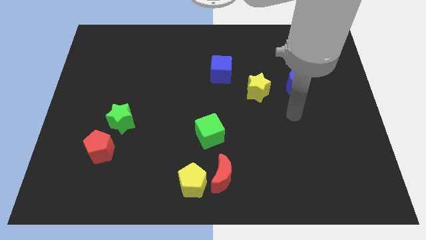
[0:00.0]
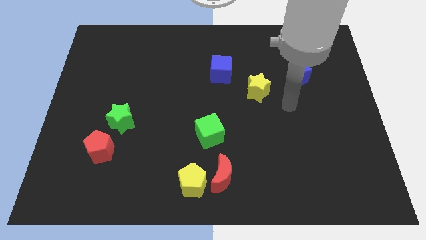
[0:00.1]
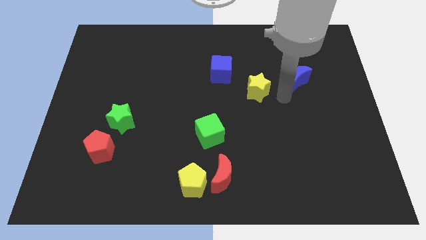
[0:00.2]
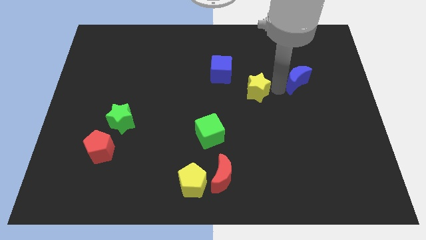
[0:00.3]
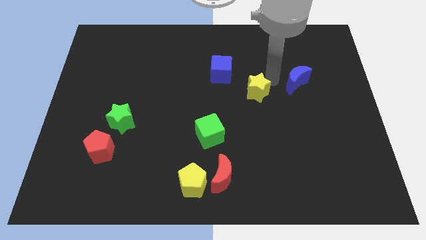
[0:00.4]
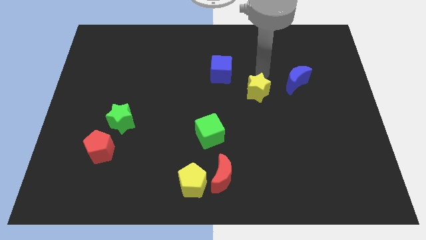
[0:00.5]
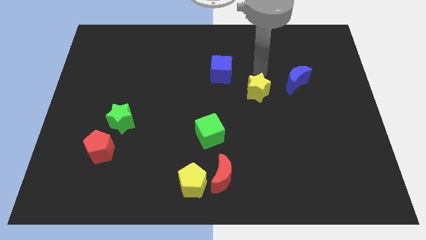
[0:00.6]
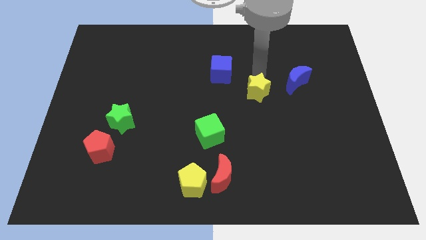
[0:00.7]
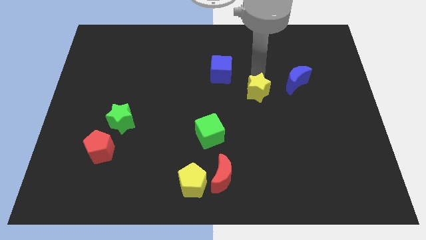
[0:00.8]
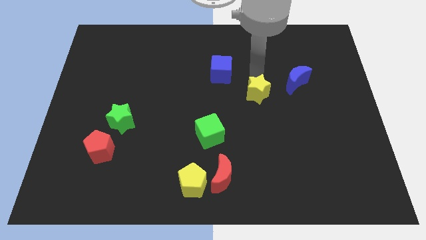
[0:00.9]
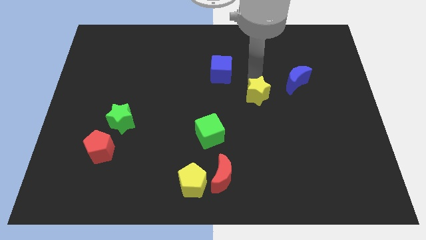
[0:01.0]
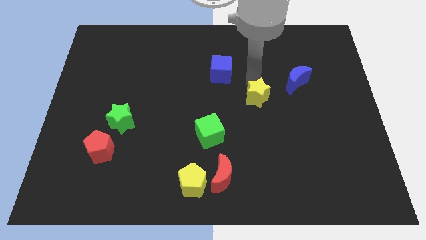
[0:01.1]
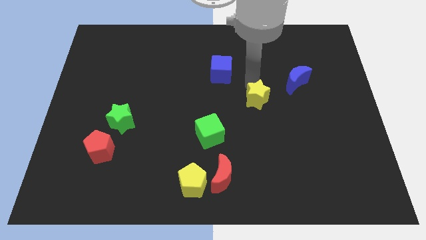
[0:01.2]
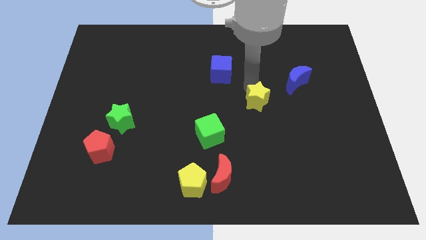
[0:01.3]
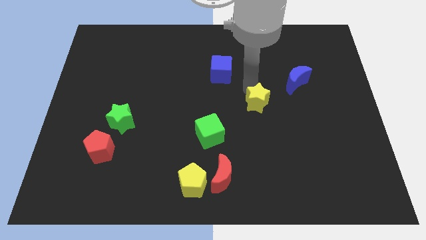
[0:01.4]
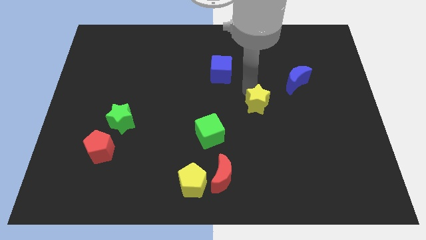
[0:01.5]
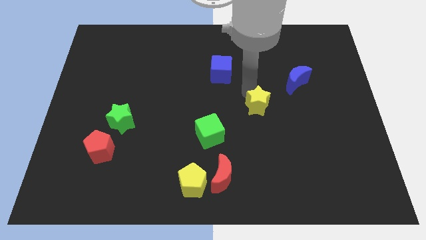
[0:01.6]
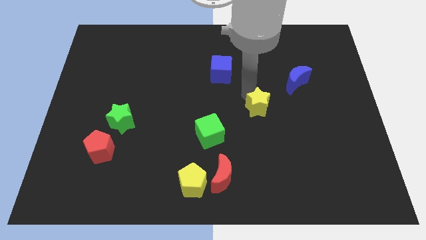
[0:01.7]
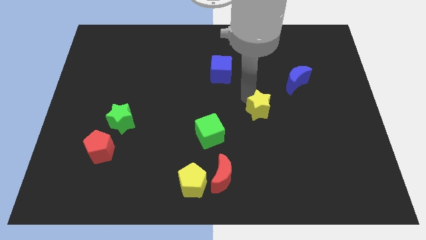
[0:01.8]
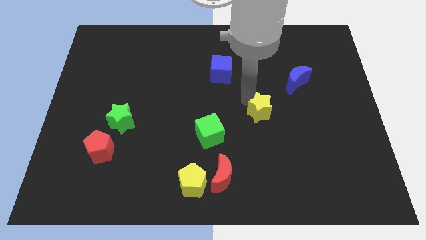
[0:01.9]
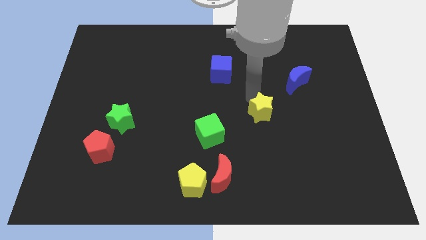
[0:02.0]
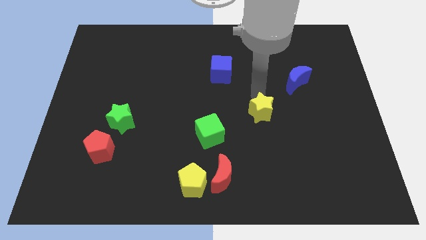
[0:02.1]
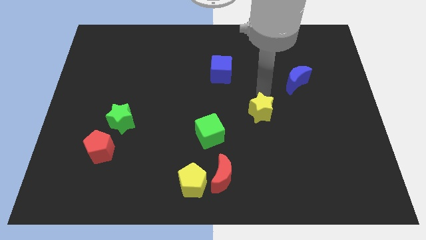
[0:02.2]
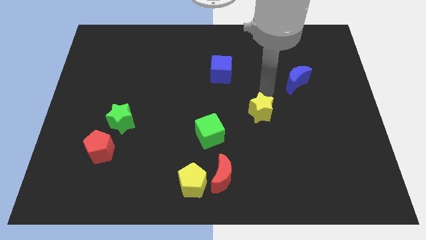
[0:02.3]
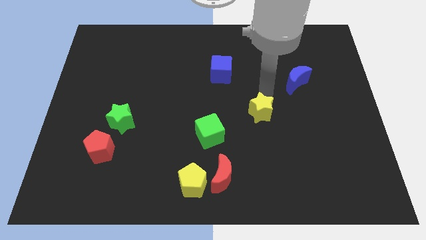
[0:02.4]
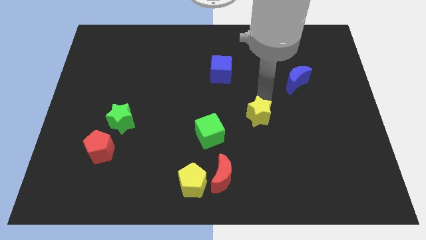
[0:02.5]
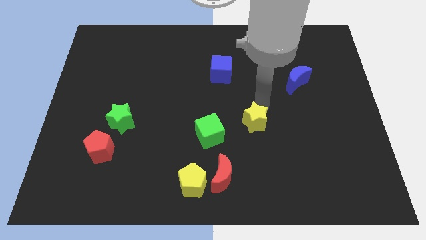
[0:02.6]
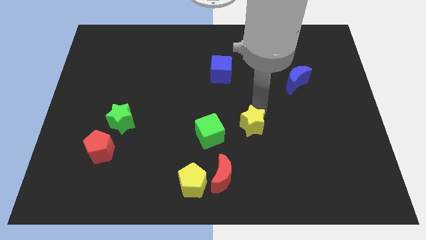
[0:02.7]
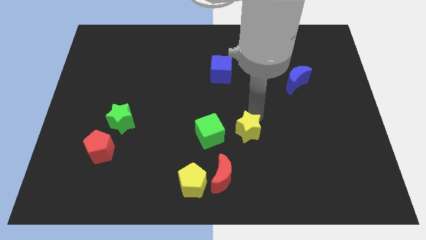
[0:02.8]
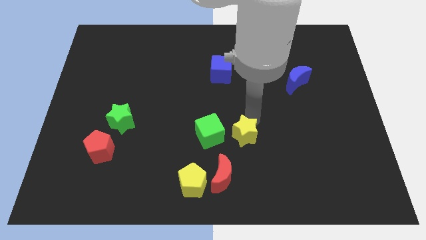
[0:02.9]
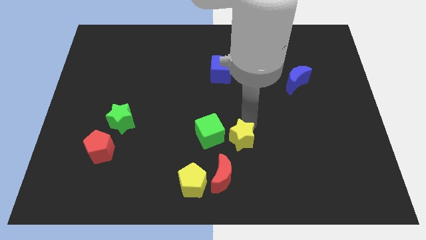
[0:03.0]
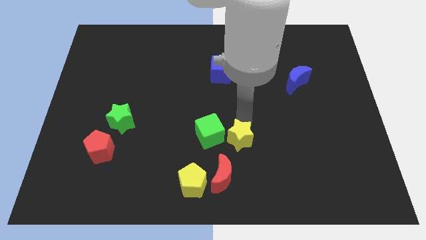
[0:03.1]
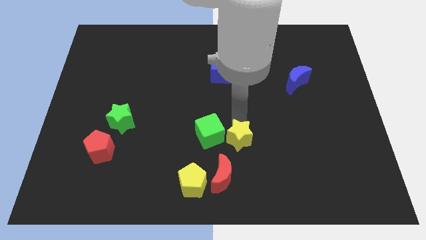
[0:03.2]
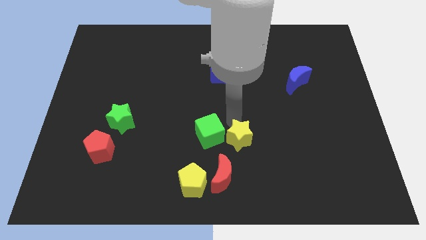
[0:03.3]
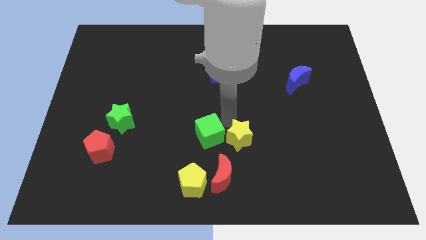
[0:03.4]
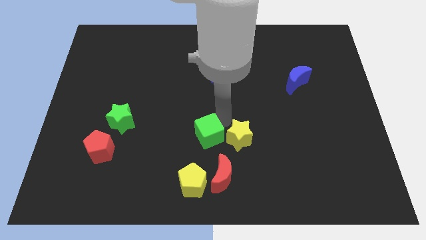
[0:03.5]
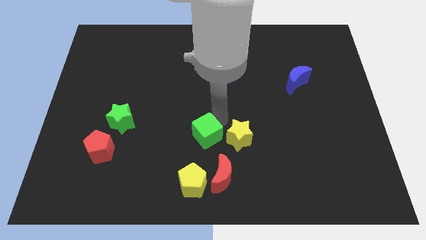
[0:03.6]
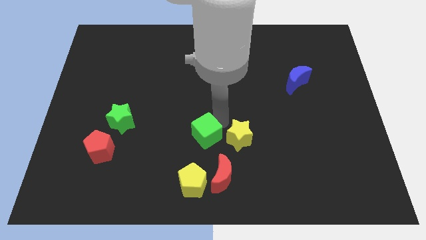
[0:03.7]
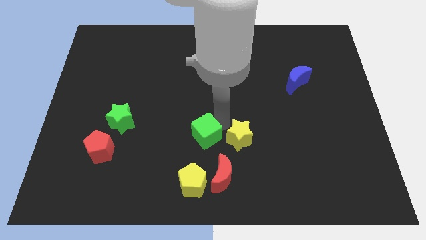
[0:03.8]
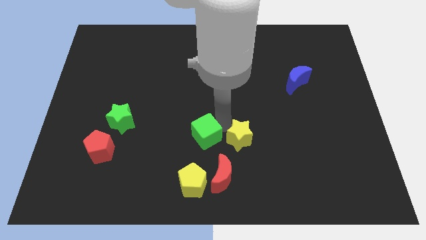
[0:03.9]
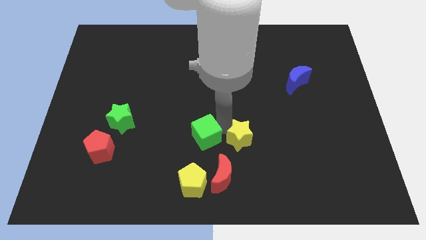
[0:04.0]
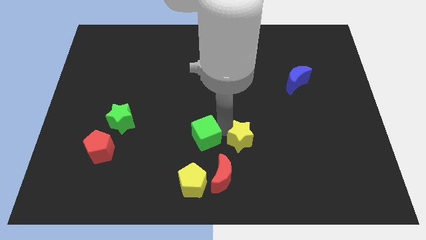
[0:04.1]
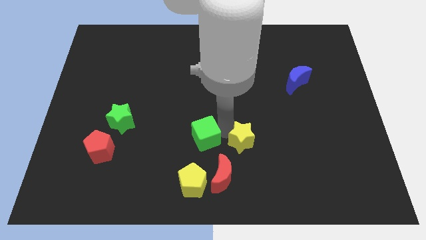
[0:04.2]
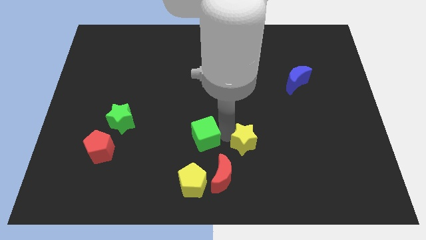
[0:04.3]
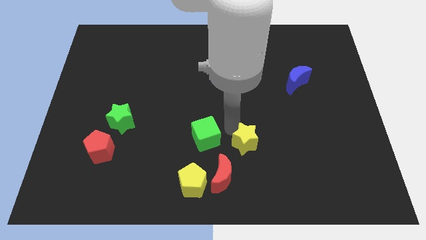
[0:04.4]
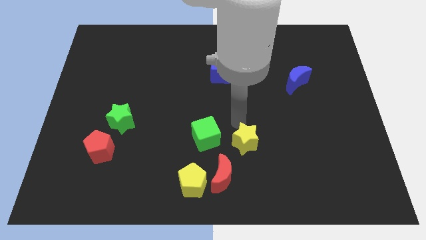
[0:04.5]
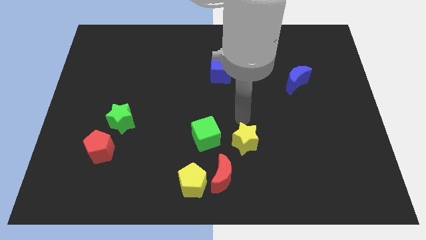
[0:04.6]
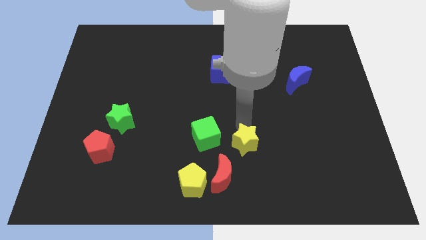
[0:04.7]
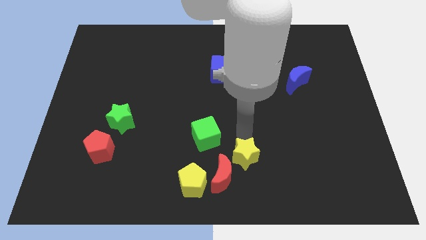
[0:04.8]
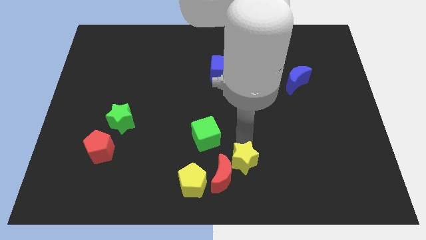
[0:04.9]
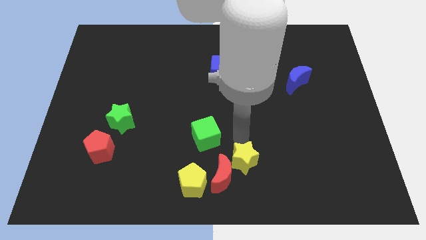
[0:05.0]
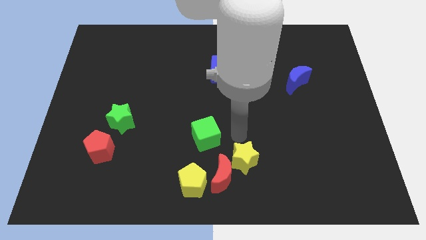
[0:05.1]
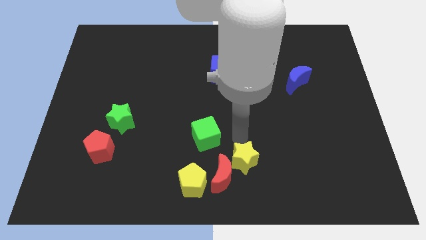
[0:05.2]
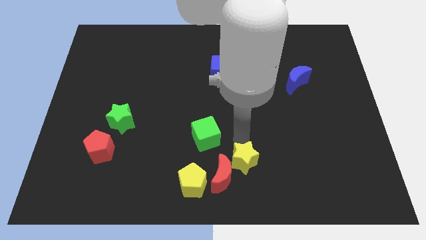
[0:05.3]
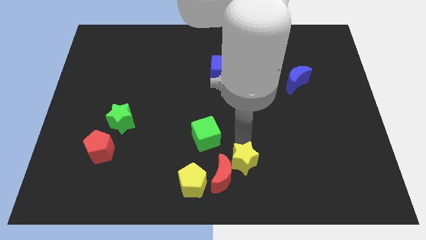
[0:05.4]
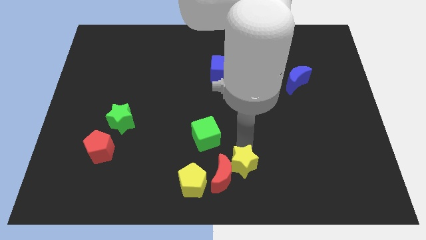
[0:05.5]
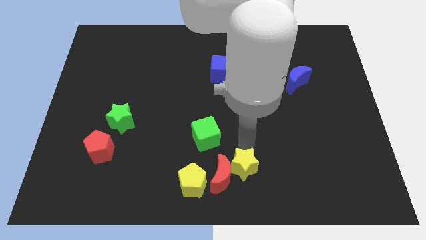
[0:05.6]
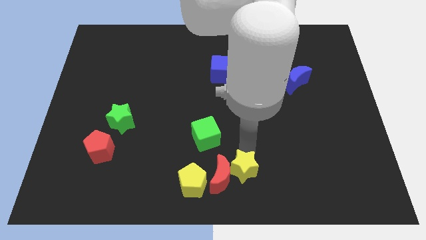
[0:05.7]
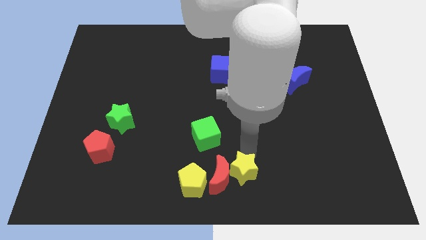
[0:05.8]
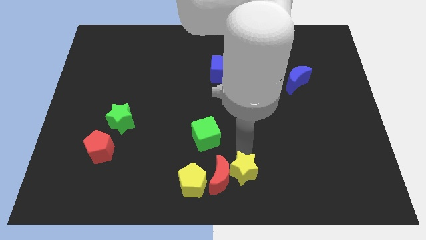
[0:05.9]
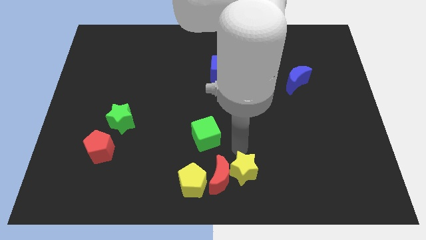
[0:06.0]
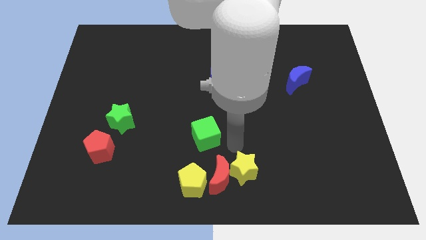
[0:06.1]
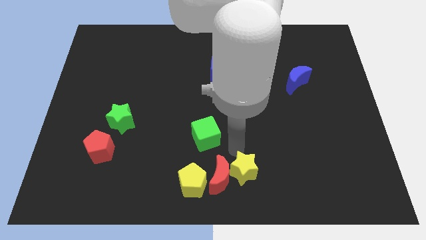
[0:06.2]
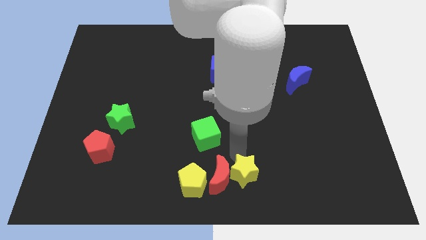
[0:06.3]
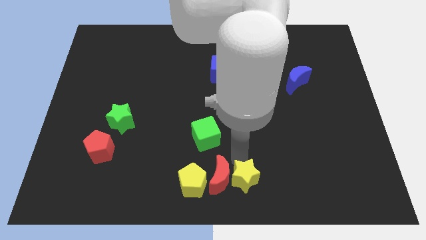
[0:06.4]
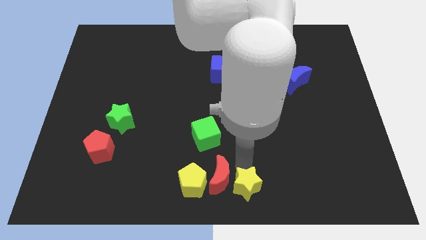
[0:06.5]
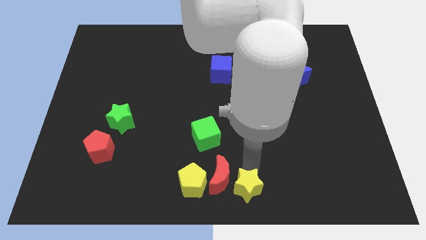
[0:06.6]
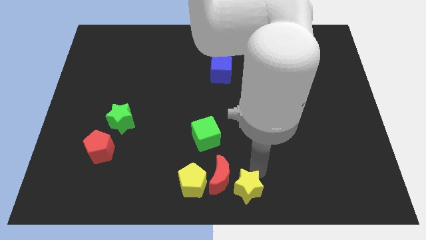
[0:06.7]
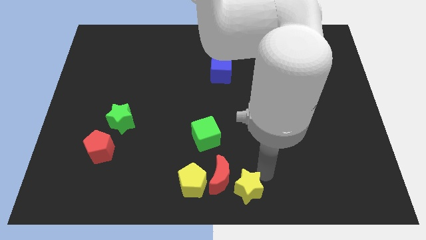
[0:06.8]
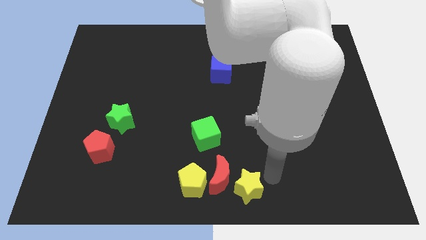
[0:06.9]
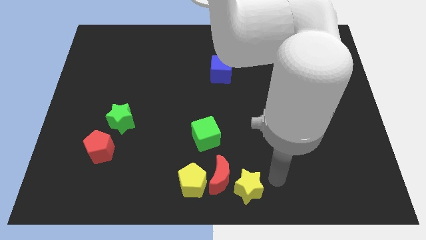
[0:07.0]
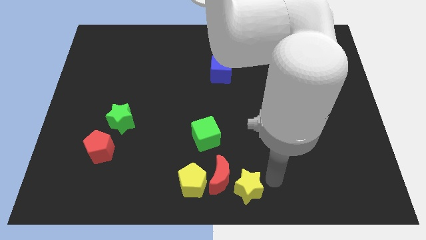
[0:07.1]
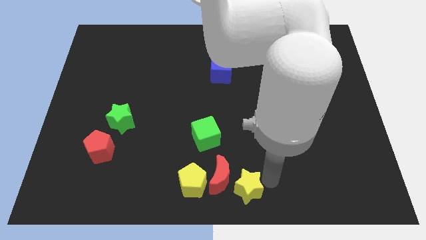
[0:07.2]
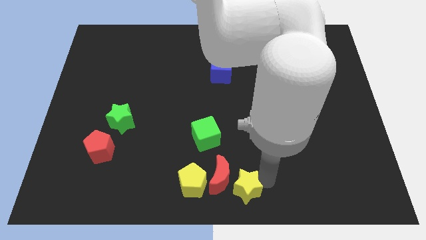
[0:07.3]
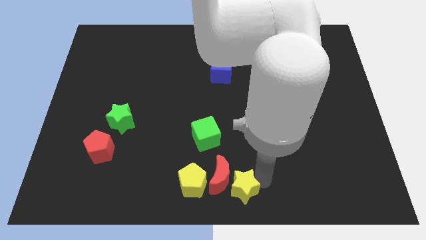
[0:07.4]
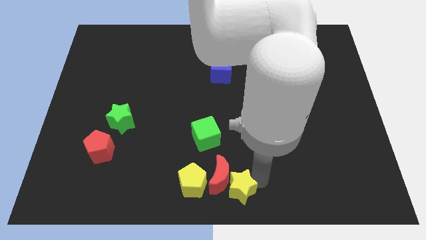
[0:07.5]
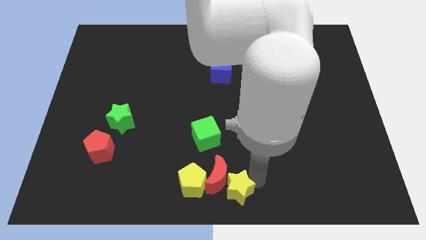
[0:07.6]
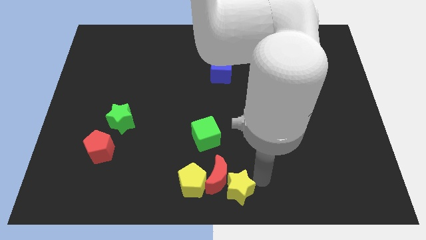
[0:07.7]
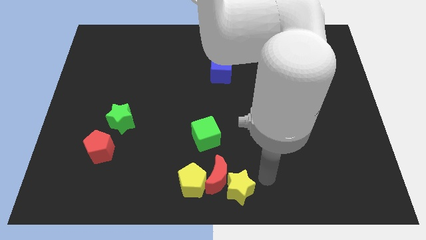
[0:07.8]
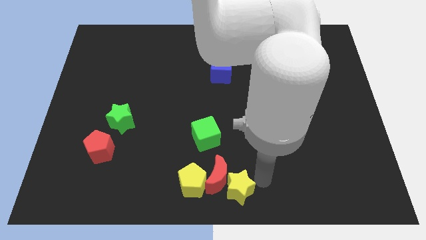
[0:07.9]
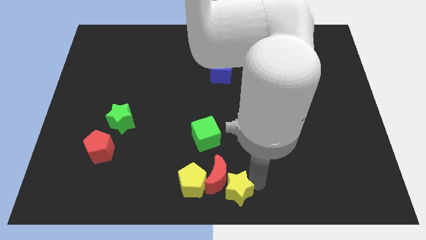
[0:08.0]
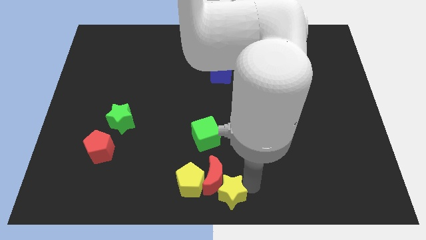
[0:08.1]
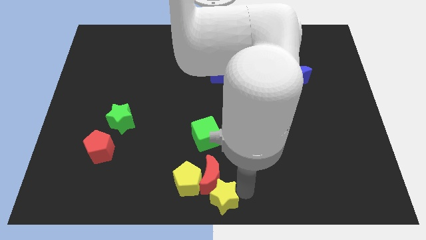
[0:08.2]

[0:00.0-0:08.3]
move the yellow star to the bottom of the green cube
